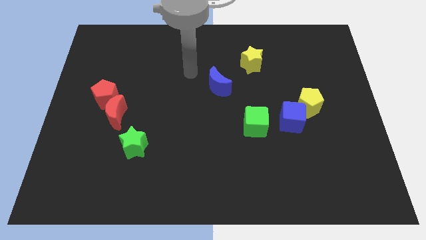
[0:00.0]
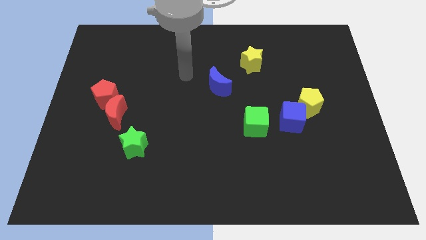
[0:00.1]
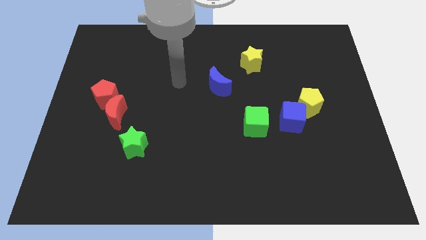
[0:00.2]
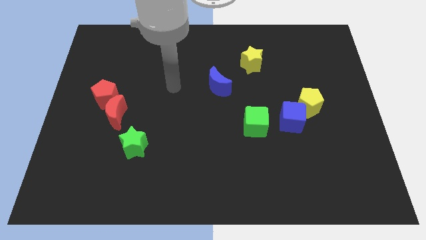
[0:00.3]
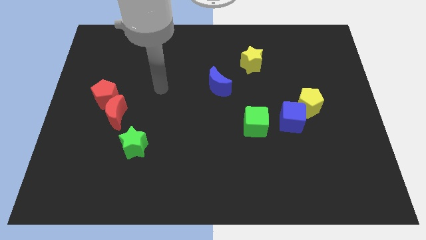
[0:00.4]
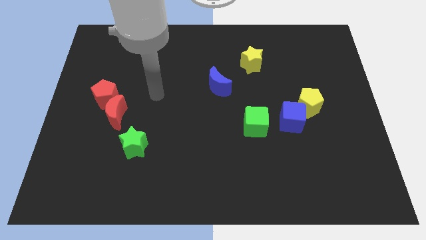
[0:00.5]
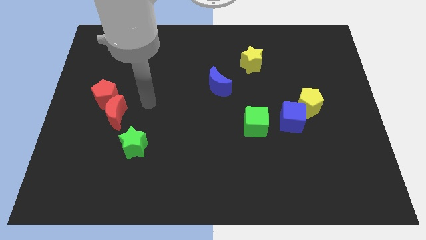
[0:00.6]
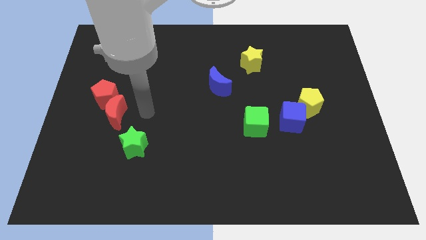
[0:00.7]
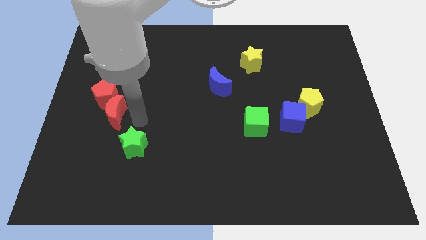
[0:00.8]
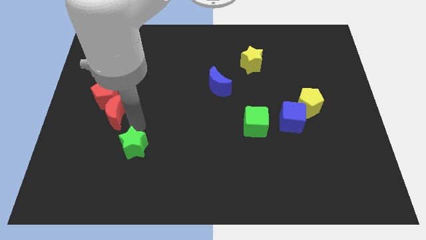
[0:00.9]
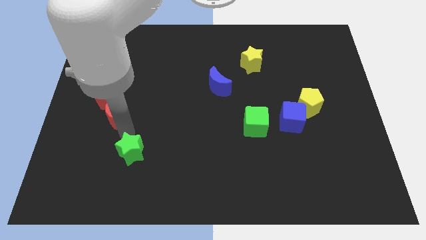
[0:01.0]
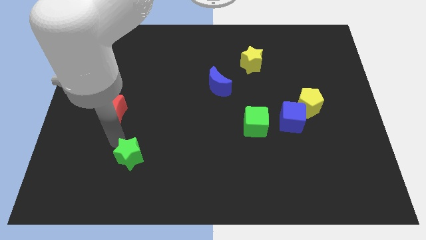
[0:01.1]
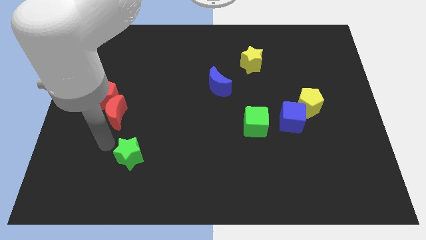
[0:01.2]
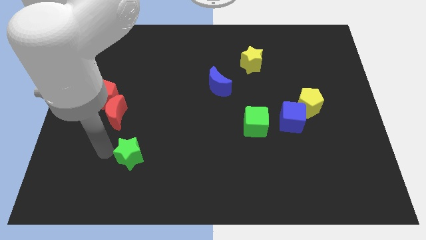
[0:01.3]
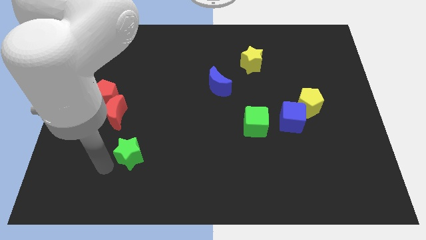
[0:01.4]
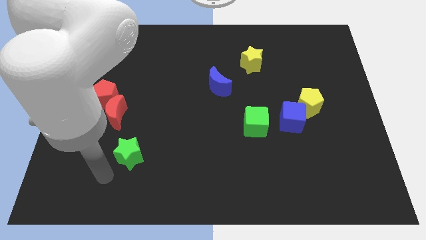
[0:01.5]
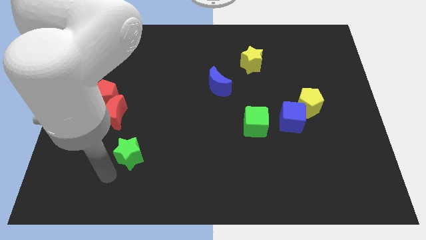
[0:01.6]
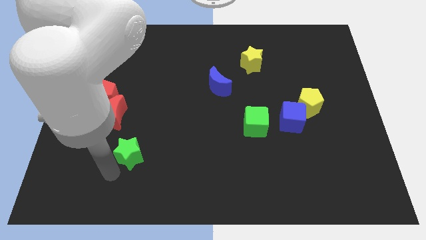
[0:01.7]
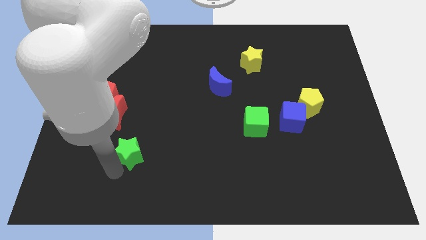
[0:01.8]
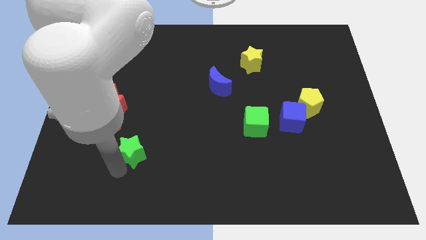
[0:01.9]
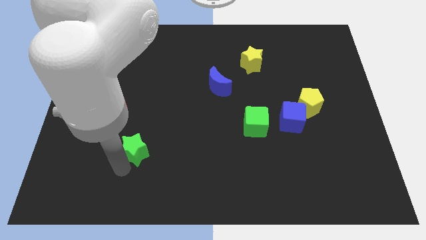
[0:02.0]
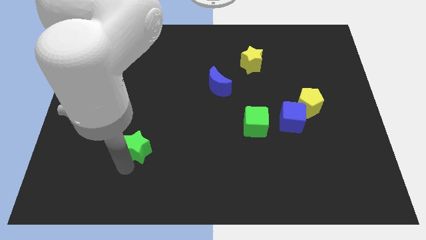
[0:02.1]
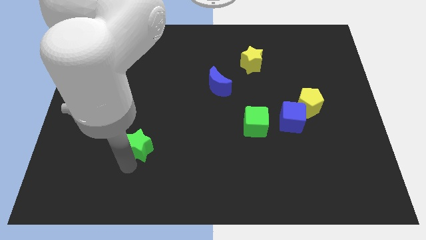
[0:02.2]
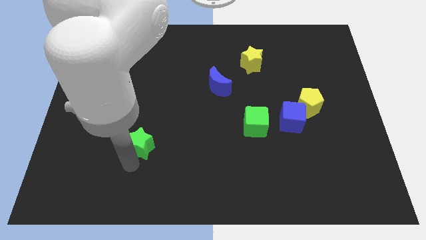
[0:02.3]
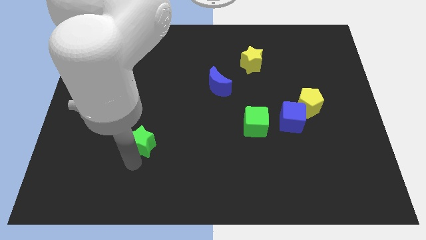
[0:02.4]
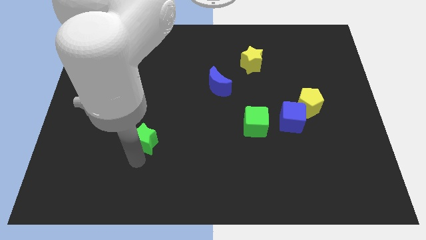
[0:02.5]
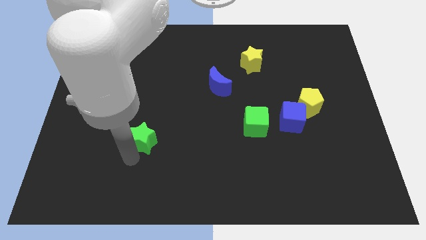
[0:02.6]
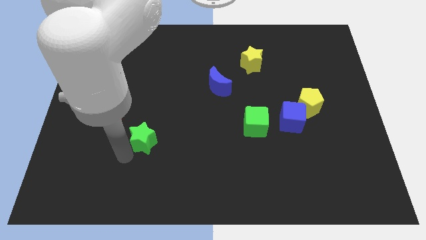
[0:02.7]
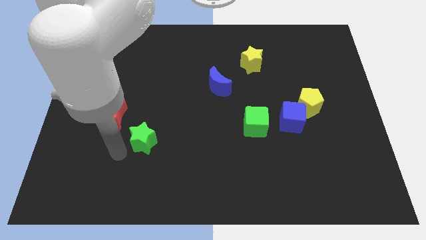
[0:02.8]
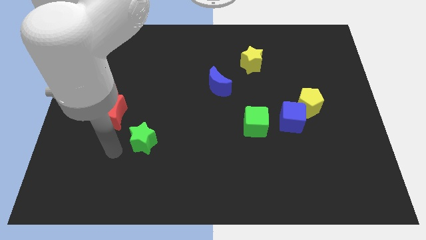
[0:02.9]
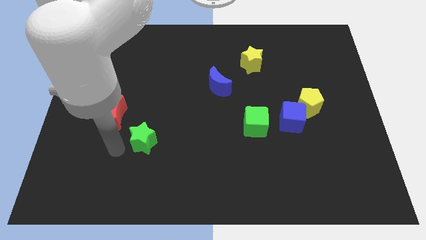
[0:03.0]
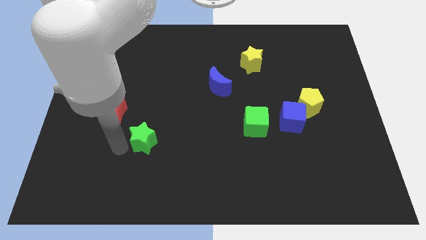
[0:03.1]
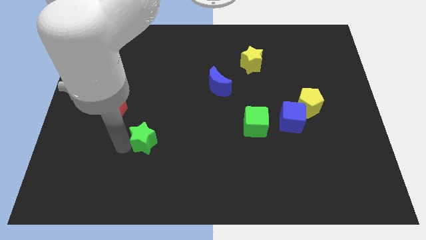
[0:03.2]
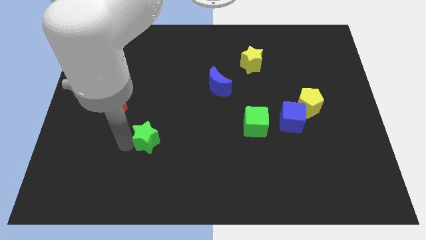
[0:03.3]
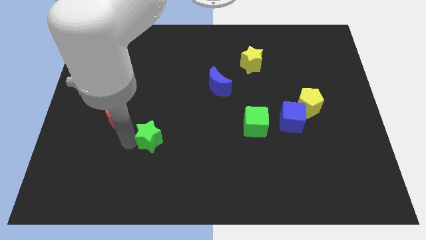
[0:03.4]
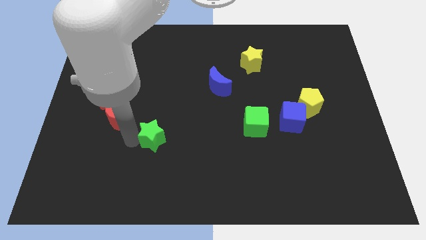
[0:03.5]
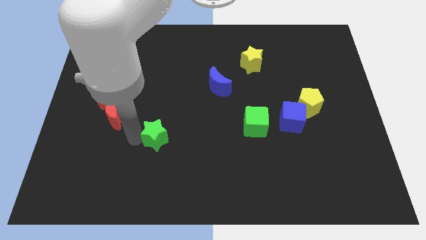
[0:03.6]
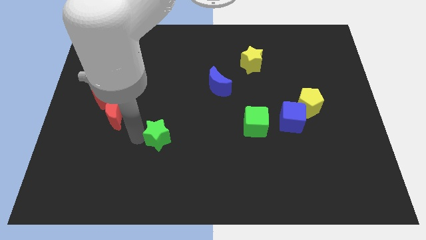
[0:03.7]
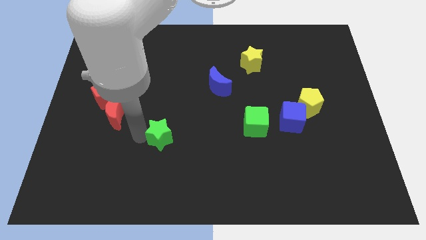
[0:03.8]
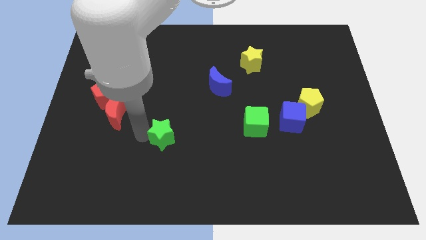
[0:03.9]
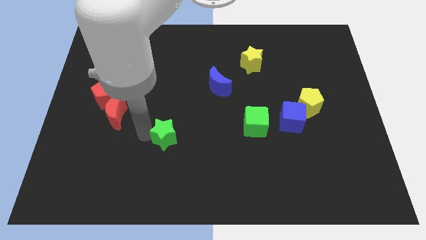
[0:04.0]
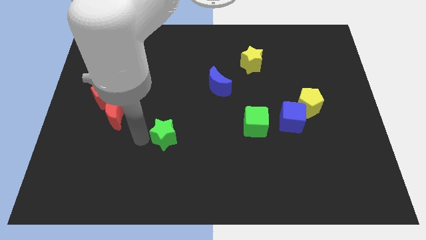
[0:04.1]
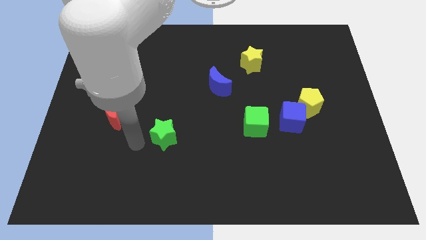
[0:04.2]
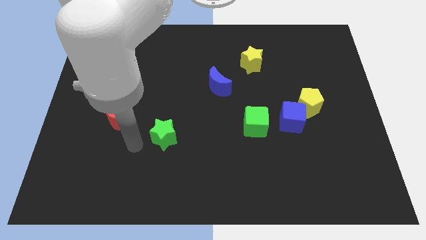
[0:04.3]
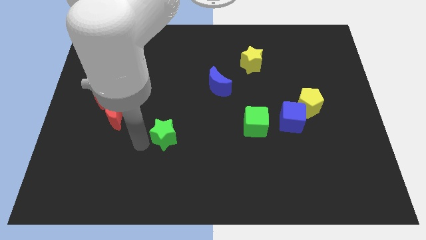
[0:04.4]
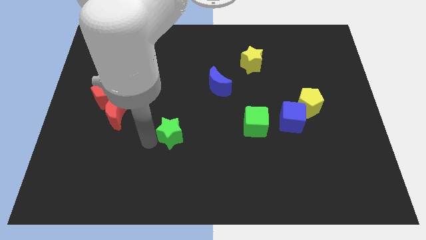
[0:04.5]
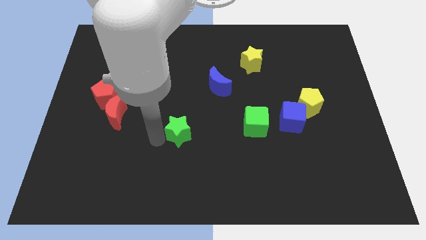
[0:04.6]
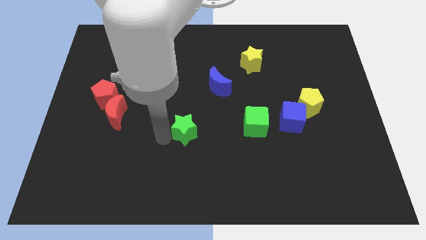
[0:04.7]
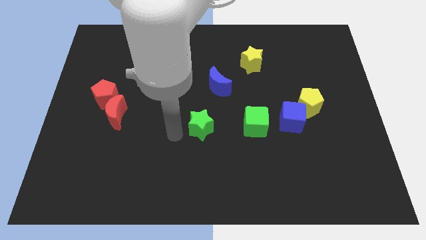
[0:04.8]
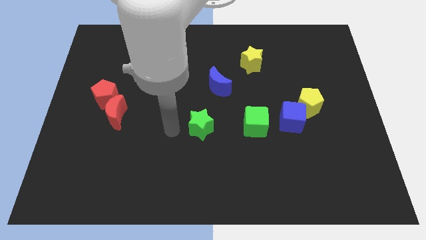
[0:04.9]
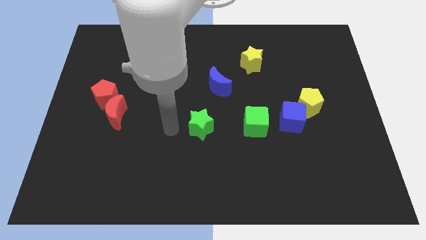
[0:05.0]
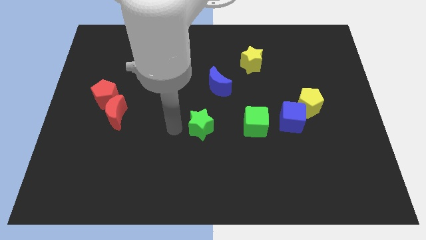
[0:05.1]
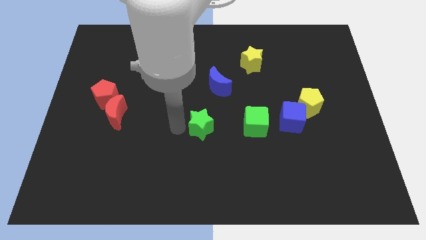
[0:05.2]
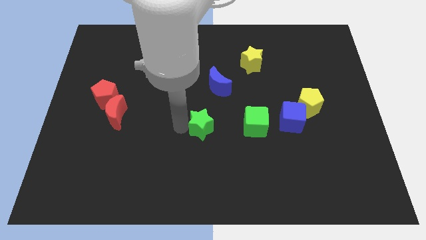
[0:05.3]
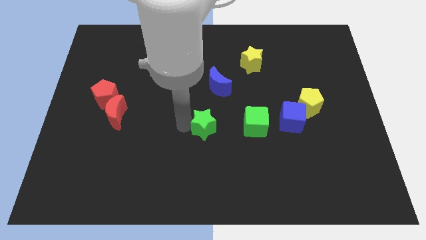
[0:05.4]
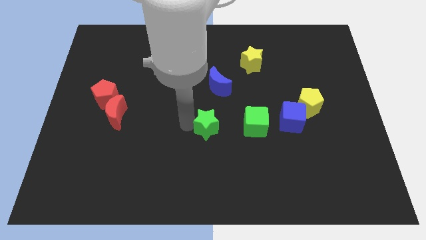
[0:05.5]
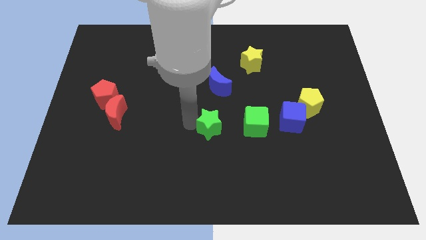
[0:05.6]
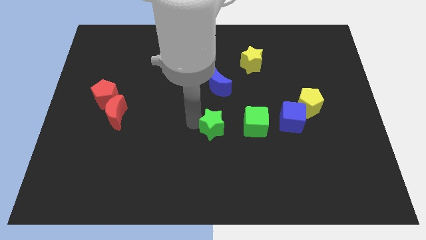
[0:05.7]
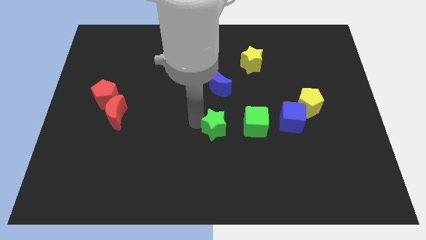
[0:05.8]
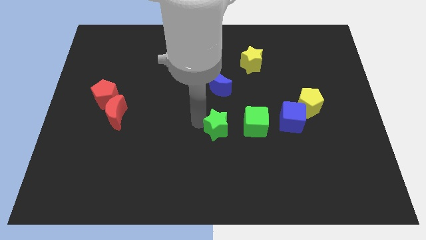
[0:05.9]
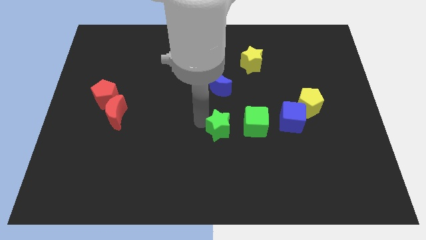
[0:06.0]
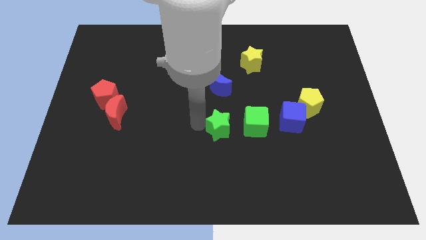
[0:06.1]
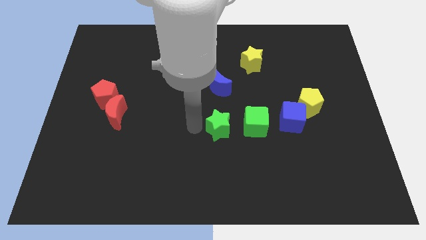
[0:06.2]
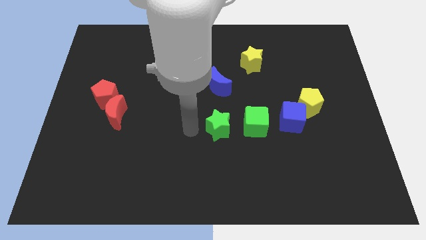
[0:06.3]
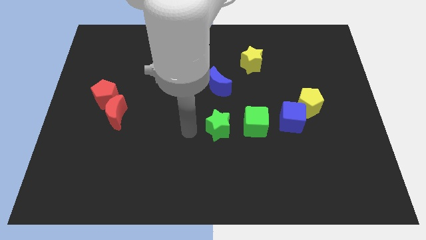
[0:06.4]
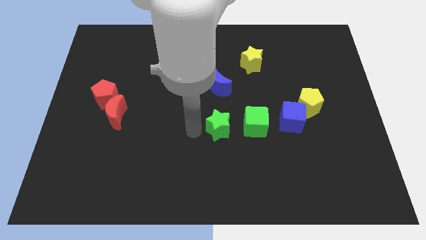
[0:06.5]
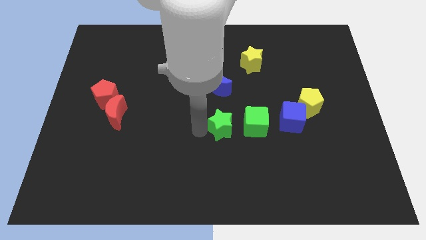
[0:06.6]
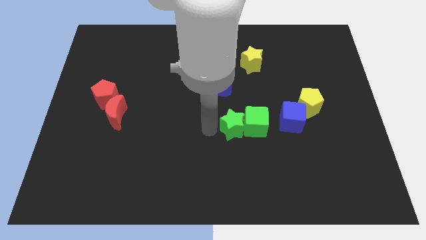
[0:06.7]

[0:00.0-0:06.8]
push the green star next to the green cube
